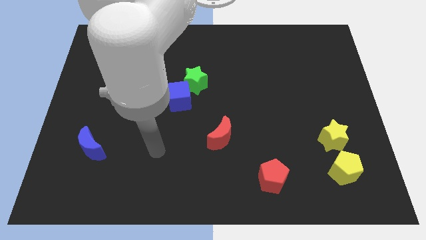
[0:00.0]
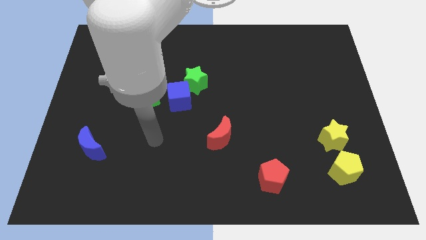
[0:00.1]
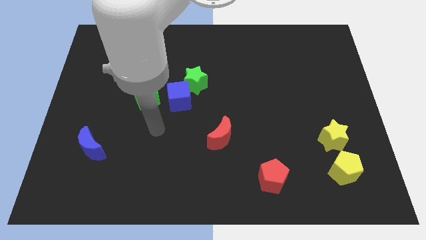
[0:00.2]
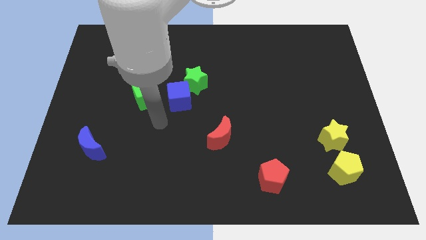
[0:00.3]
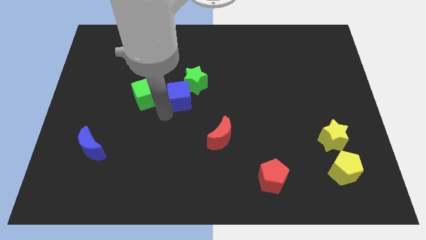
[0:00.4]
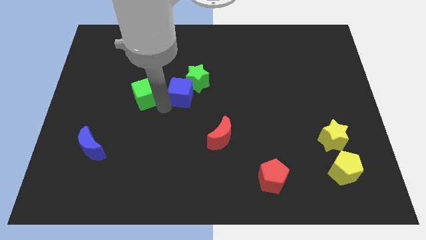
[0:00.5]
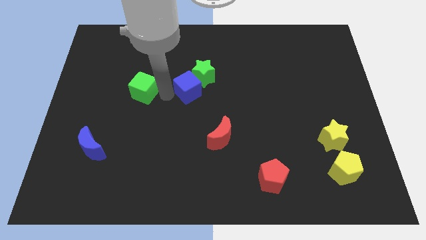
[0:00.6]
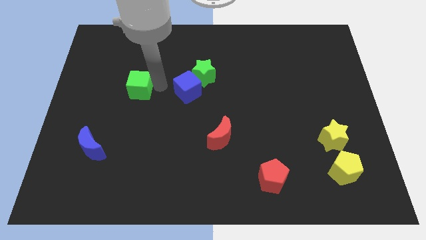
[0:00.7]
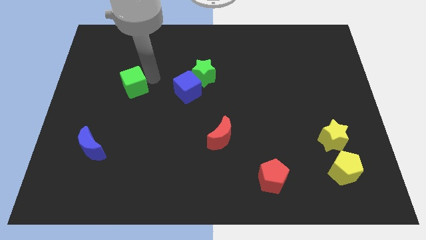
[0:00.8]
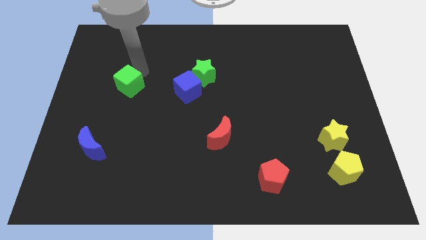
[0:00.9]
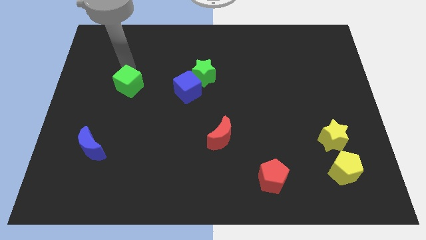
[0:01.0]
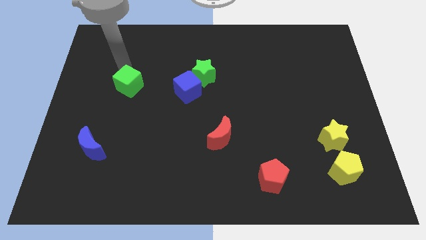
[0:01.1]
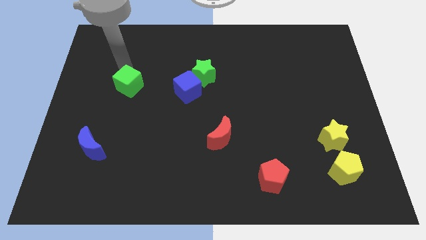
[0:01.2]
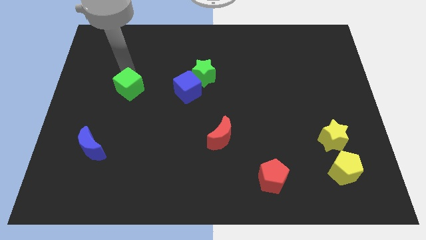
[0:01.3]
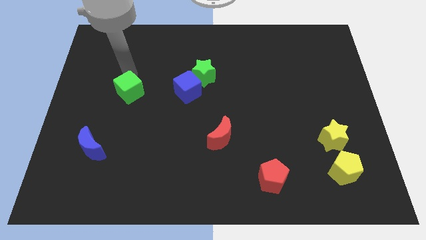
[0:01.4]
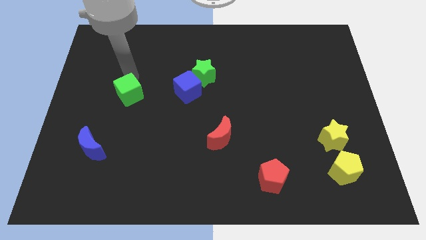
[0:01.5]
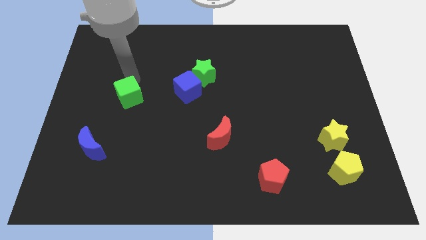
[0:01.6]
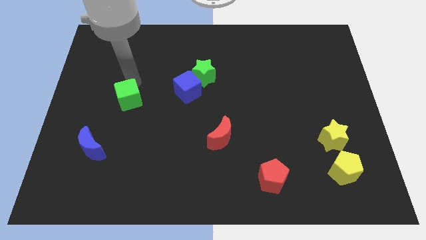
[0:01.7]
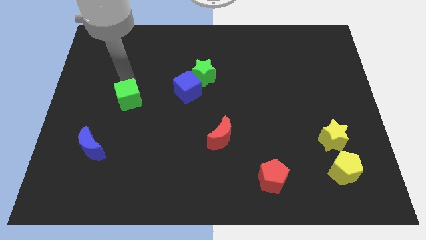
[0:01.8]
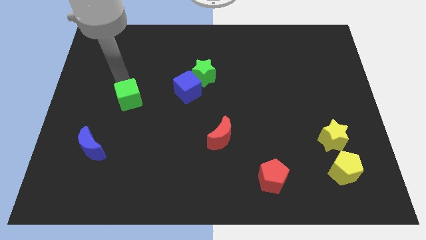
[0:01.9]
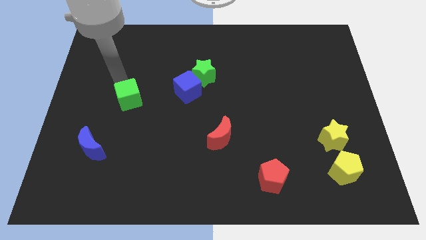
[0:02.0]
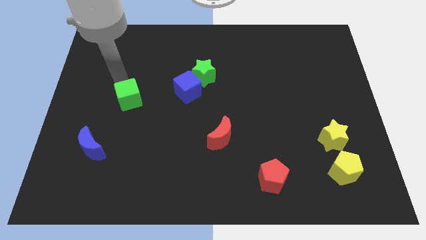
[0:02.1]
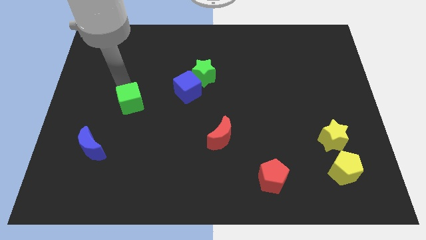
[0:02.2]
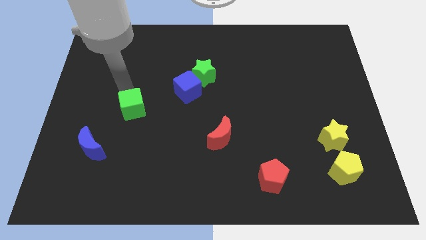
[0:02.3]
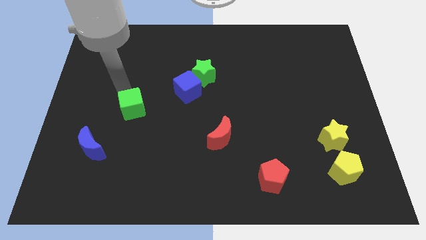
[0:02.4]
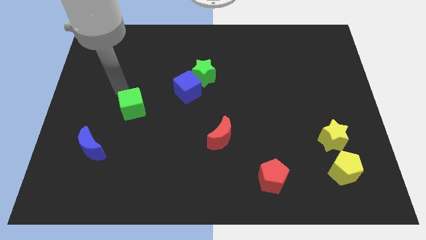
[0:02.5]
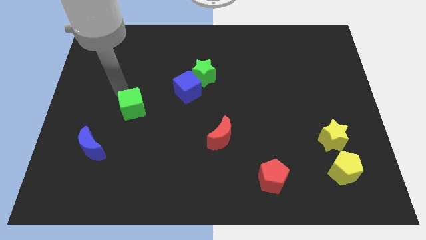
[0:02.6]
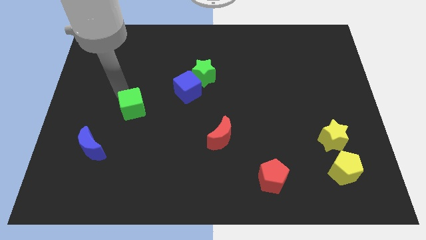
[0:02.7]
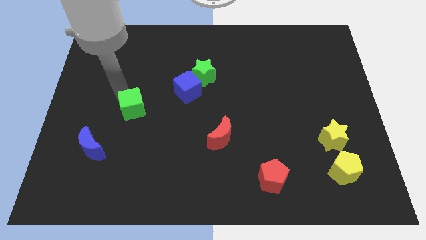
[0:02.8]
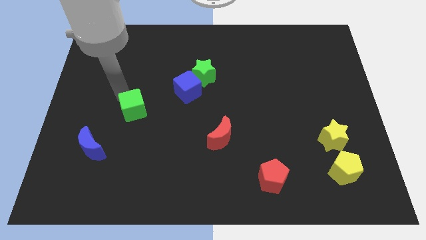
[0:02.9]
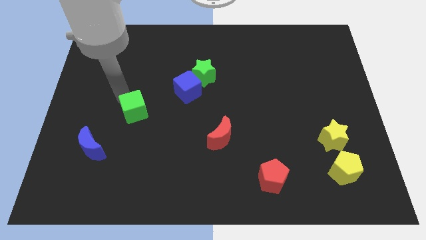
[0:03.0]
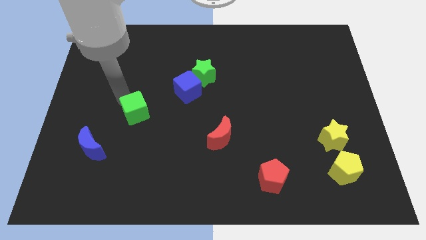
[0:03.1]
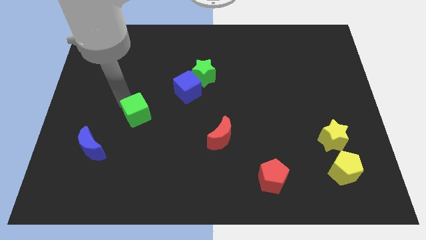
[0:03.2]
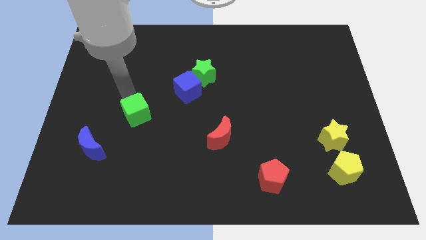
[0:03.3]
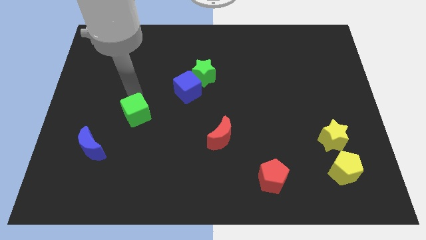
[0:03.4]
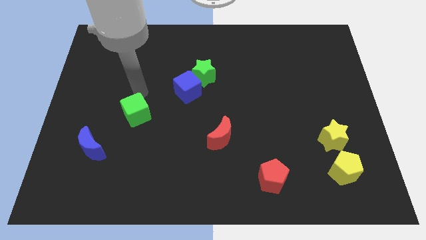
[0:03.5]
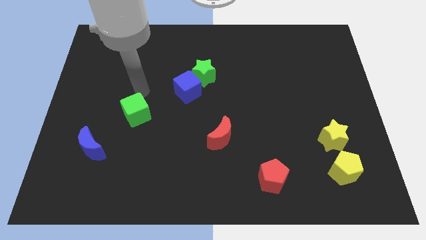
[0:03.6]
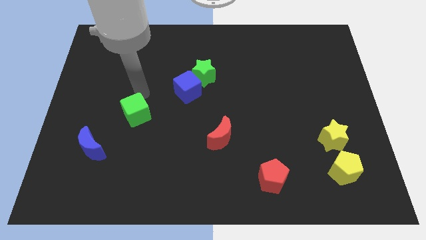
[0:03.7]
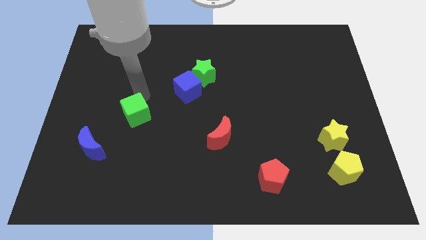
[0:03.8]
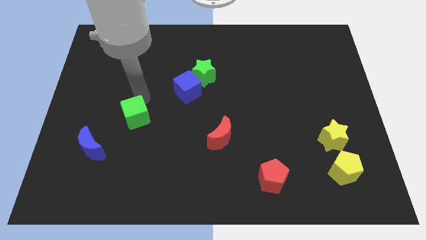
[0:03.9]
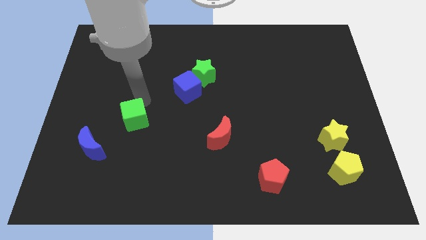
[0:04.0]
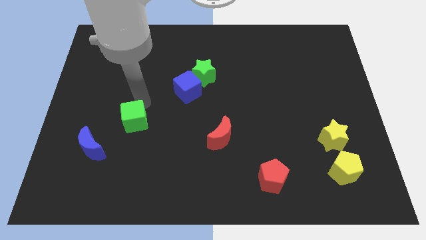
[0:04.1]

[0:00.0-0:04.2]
slightly move the green cube downwards

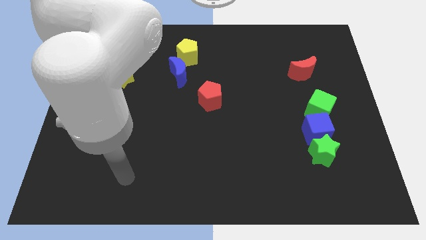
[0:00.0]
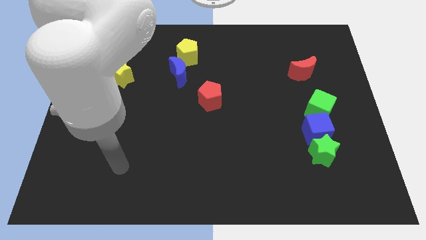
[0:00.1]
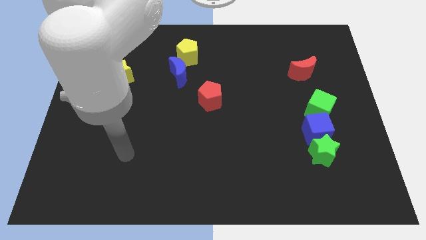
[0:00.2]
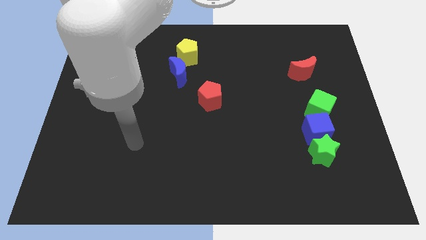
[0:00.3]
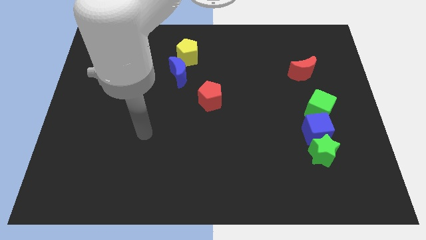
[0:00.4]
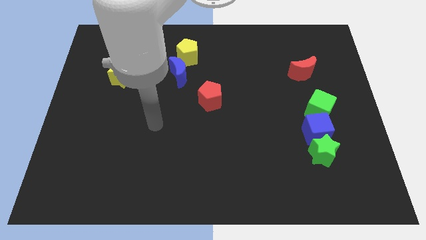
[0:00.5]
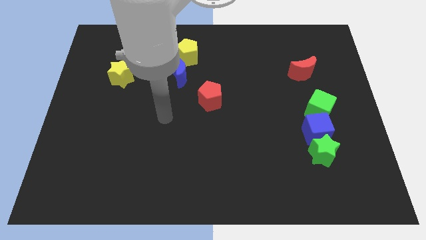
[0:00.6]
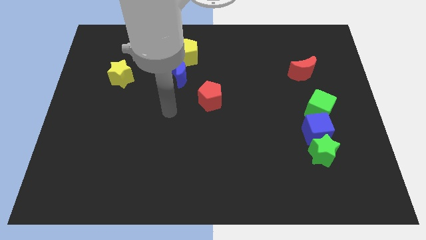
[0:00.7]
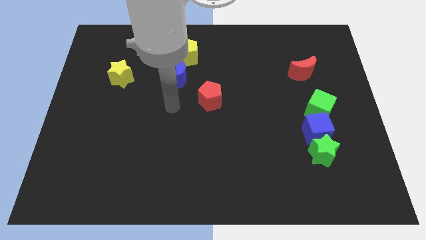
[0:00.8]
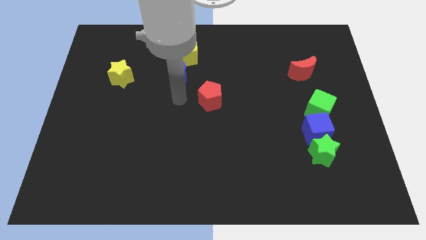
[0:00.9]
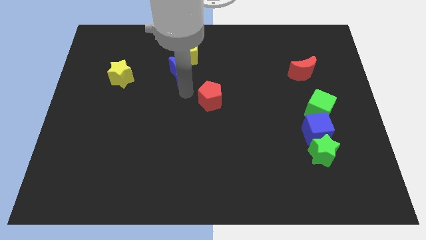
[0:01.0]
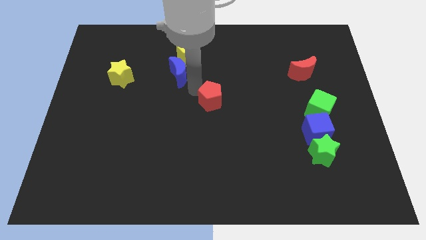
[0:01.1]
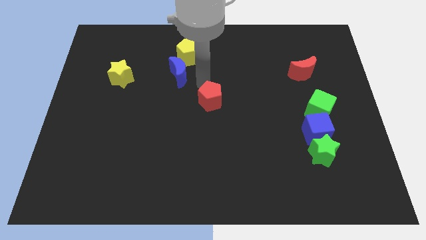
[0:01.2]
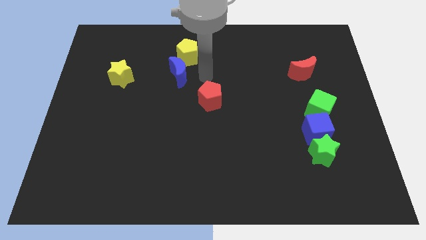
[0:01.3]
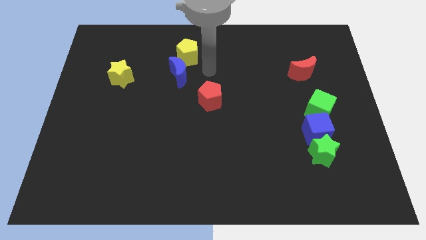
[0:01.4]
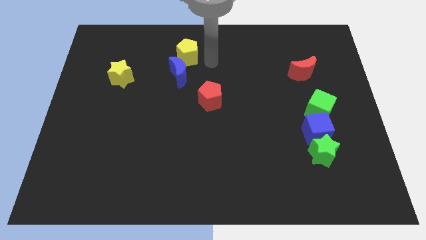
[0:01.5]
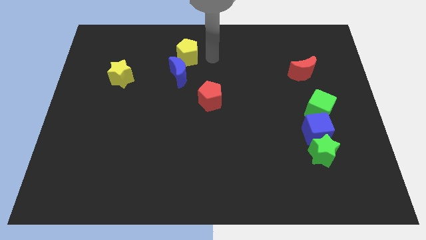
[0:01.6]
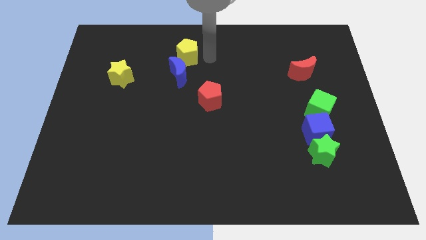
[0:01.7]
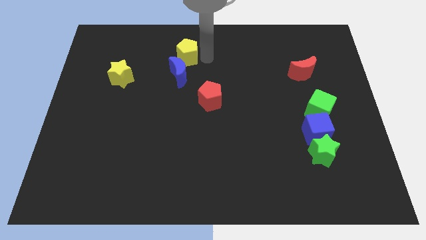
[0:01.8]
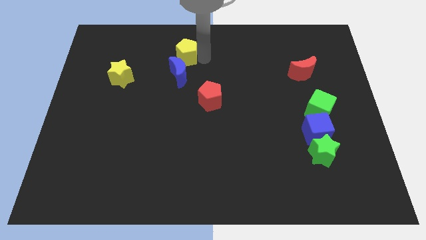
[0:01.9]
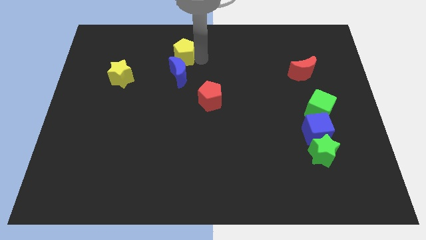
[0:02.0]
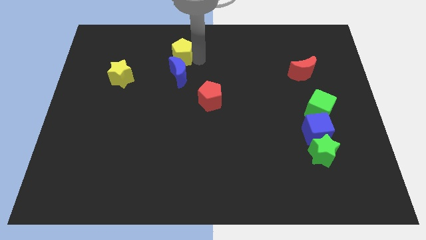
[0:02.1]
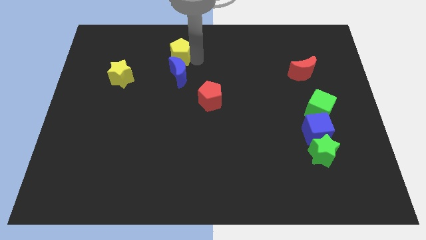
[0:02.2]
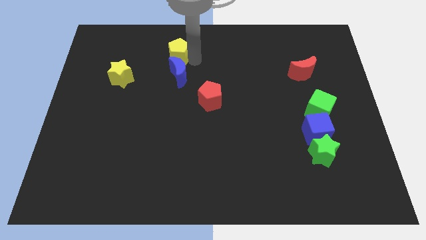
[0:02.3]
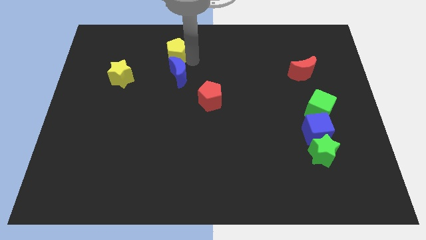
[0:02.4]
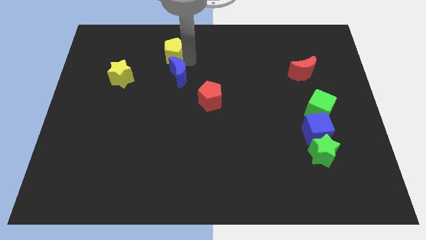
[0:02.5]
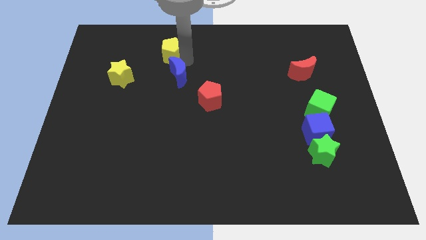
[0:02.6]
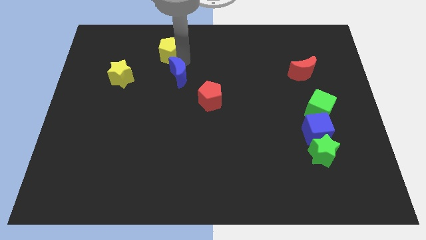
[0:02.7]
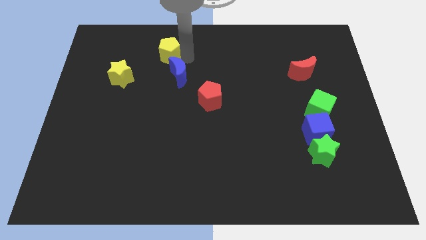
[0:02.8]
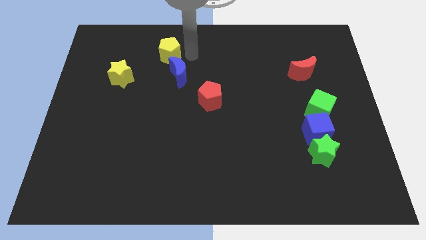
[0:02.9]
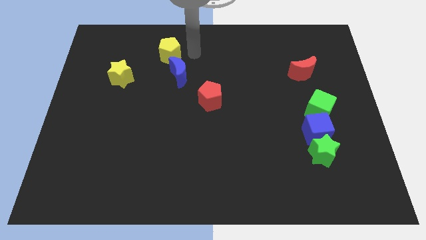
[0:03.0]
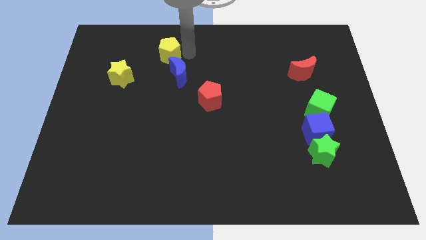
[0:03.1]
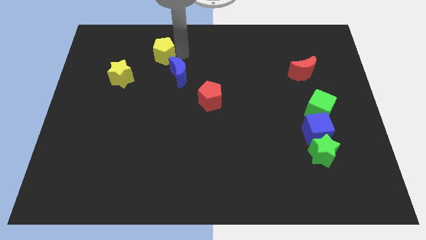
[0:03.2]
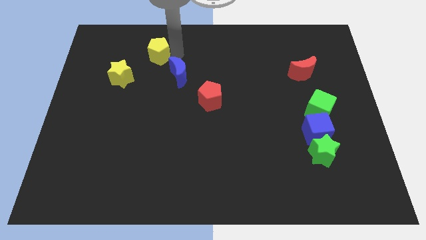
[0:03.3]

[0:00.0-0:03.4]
move the yellow pentagon to the left a little bit

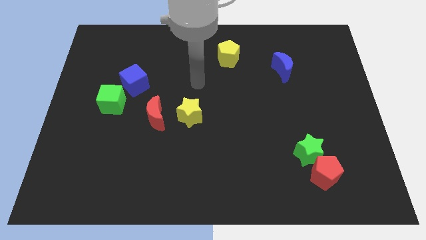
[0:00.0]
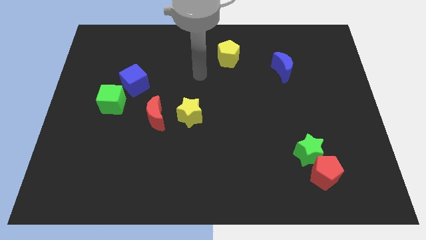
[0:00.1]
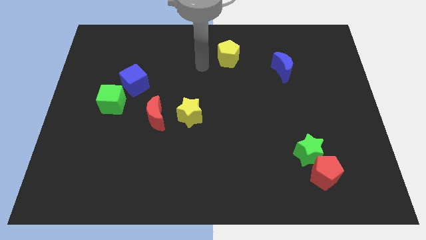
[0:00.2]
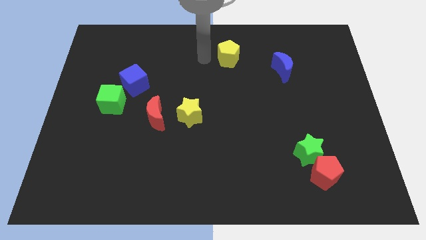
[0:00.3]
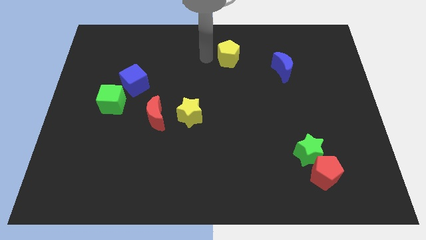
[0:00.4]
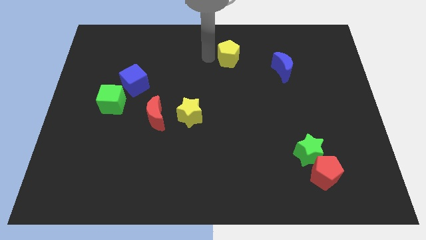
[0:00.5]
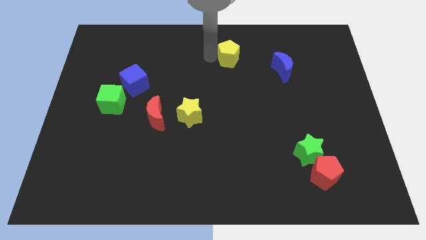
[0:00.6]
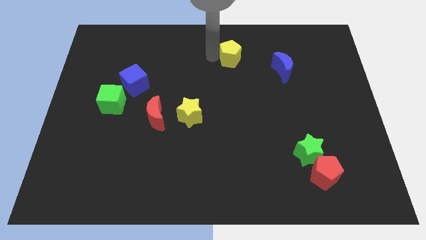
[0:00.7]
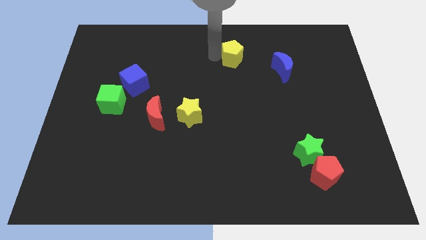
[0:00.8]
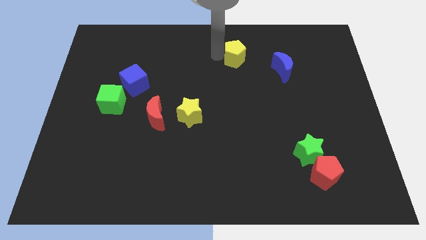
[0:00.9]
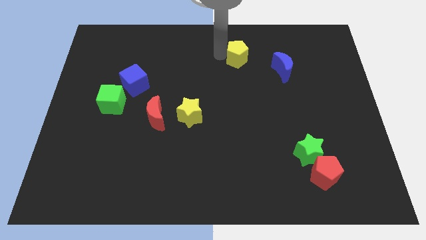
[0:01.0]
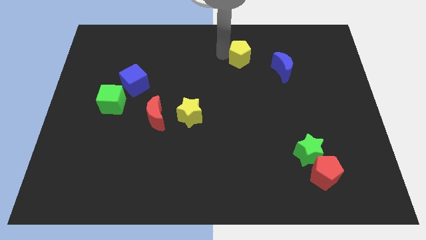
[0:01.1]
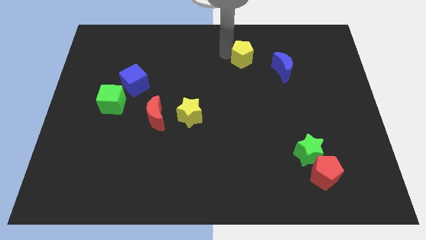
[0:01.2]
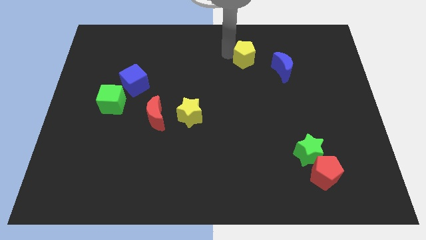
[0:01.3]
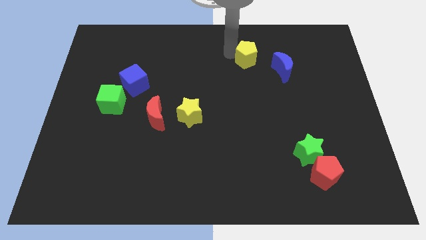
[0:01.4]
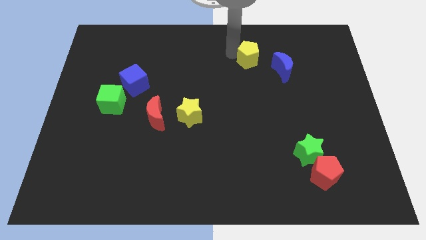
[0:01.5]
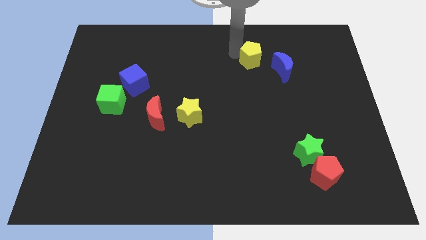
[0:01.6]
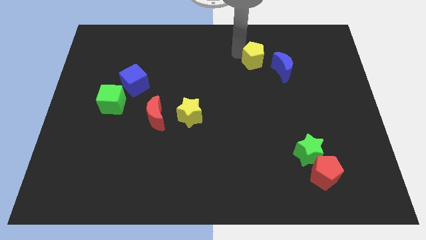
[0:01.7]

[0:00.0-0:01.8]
push the yellow pentagon somewhat right
